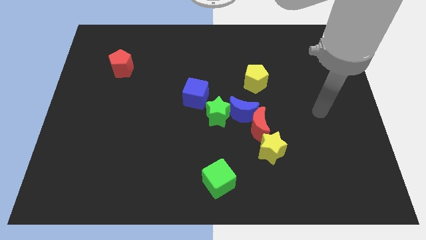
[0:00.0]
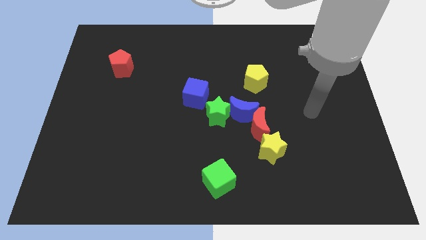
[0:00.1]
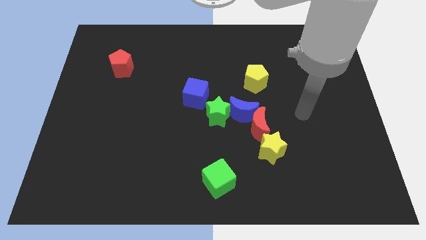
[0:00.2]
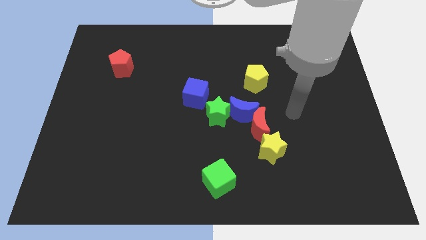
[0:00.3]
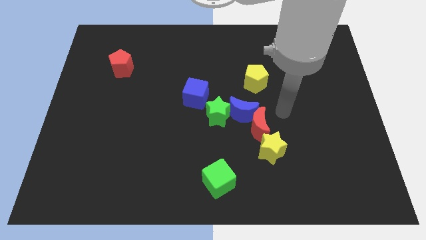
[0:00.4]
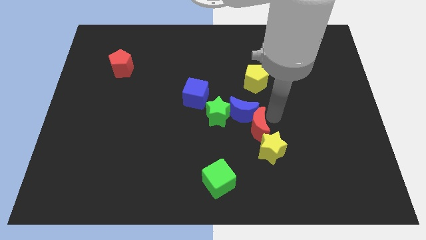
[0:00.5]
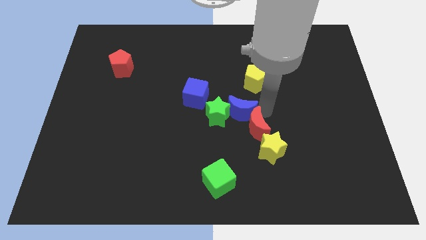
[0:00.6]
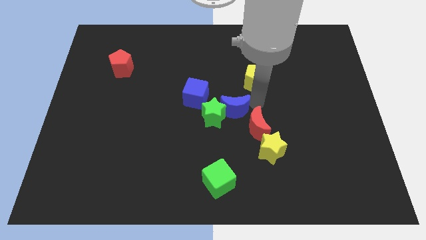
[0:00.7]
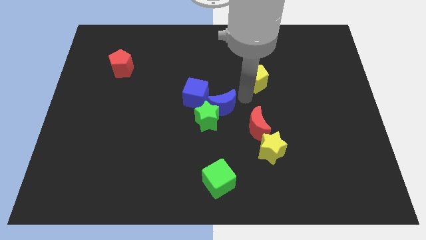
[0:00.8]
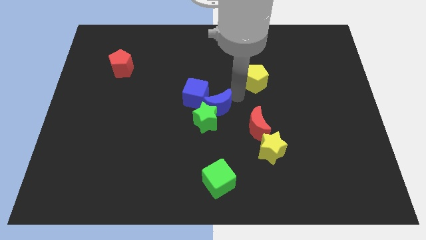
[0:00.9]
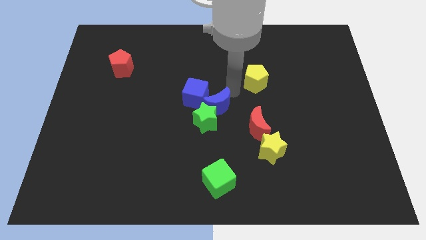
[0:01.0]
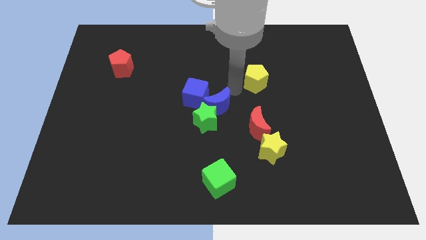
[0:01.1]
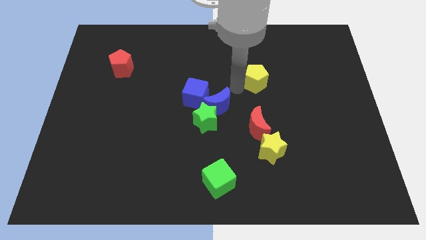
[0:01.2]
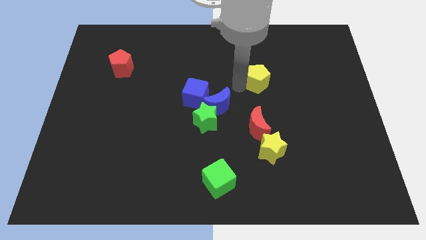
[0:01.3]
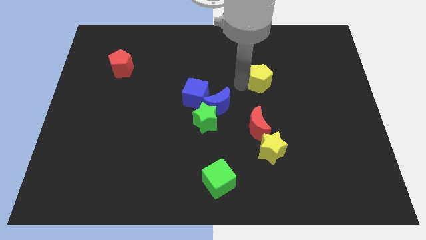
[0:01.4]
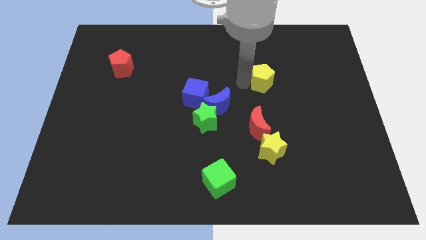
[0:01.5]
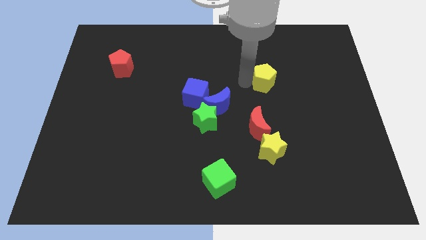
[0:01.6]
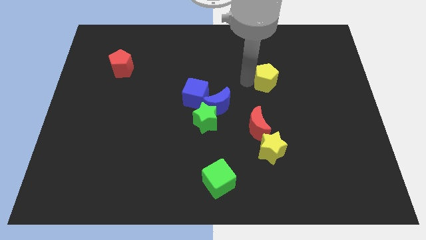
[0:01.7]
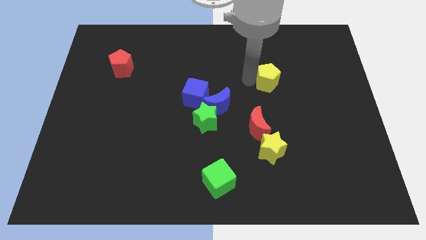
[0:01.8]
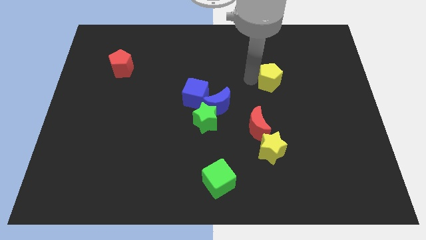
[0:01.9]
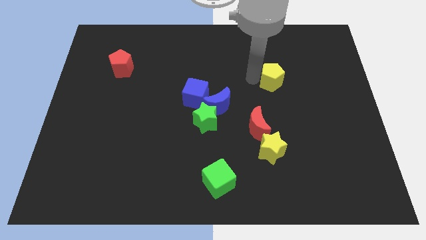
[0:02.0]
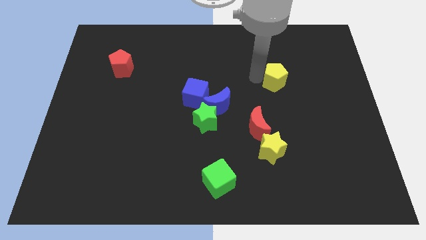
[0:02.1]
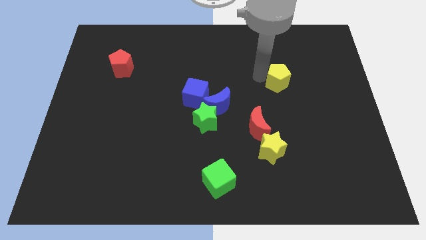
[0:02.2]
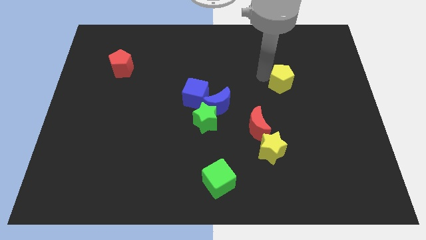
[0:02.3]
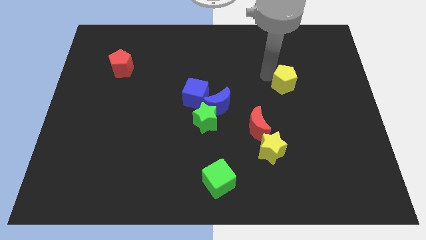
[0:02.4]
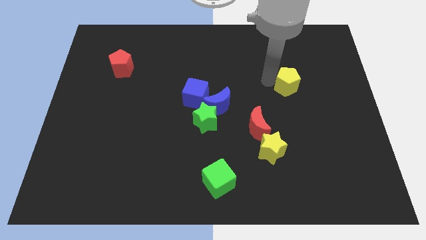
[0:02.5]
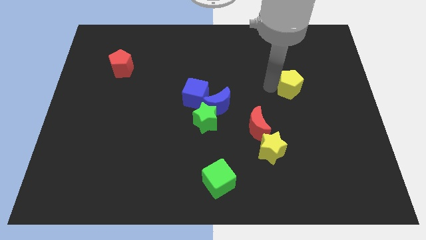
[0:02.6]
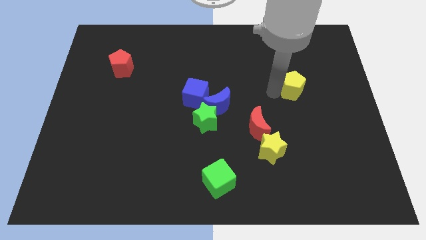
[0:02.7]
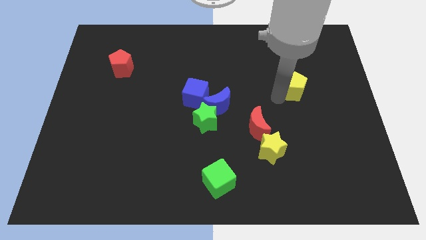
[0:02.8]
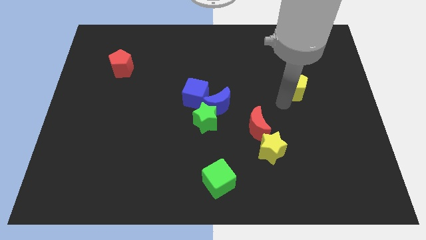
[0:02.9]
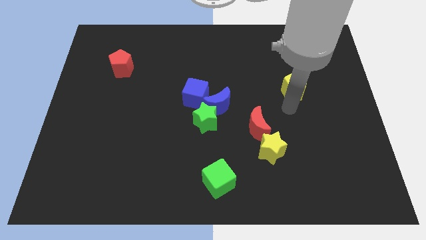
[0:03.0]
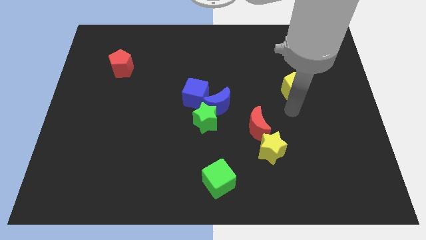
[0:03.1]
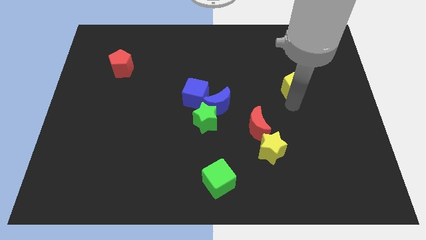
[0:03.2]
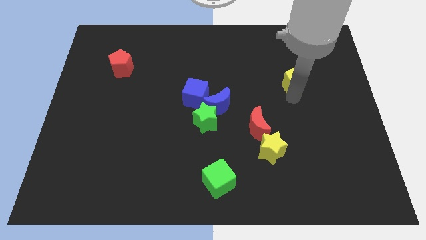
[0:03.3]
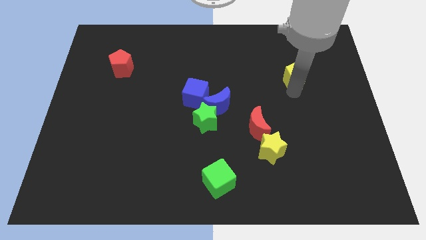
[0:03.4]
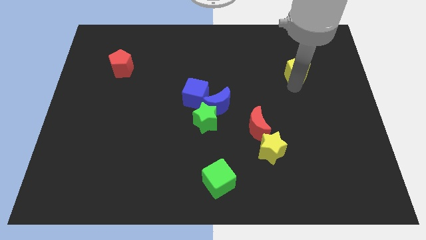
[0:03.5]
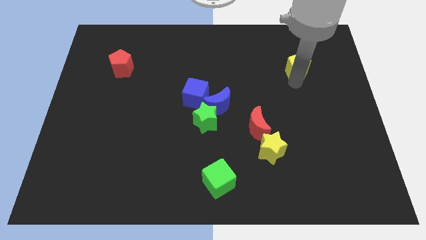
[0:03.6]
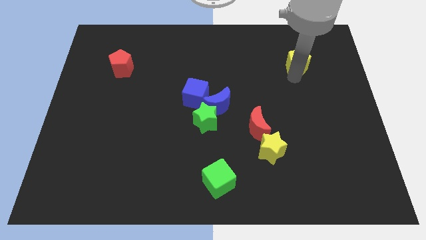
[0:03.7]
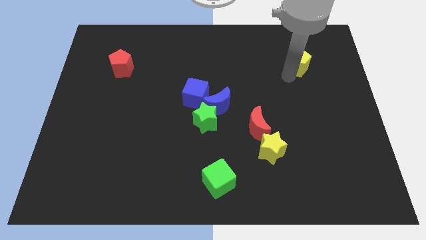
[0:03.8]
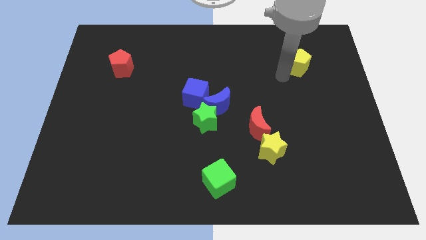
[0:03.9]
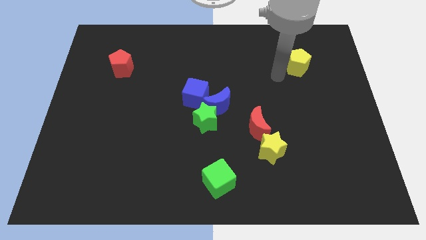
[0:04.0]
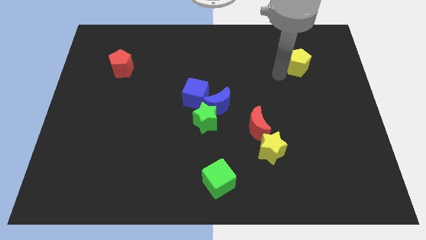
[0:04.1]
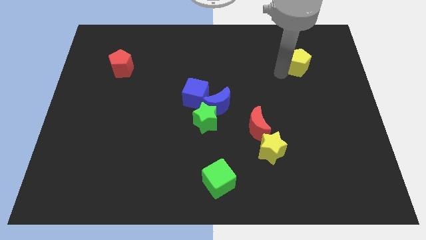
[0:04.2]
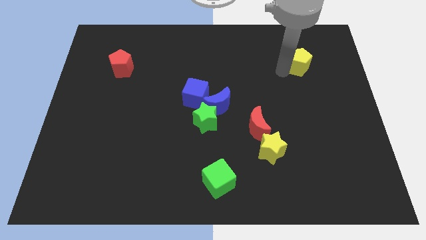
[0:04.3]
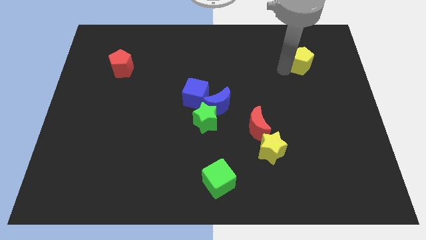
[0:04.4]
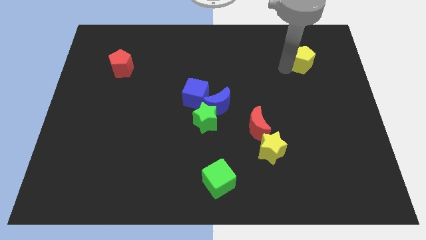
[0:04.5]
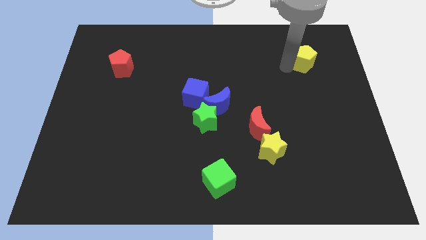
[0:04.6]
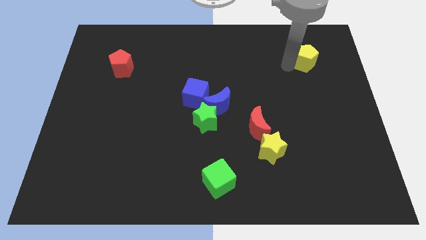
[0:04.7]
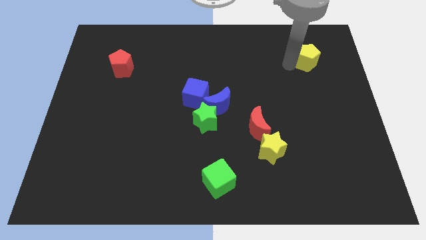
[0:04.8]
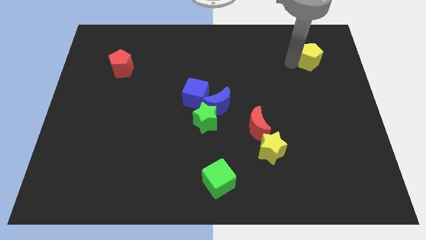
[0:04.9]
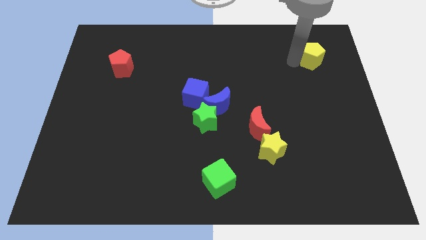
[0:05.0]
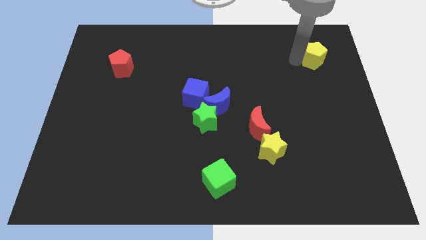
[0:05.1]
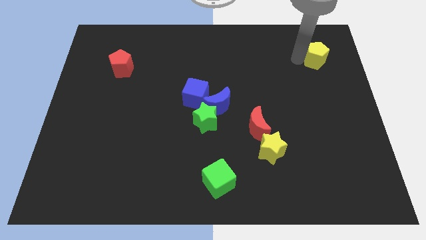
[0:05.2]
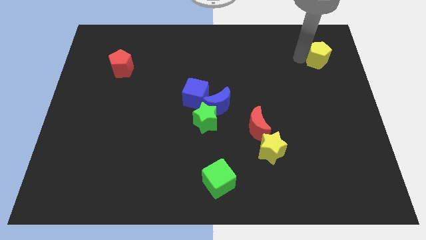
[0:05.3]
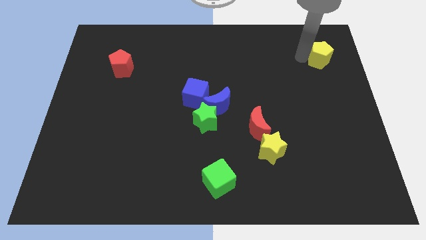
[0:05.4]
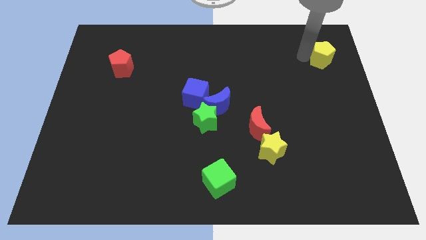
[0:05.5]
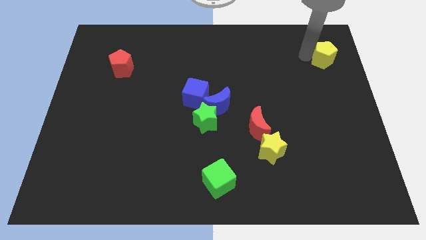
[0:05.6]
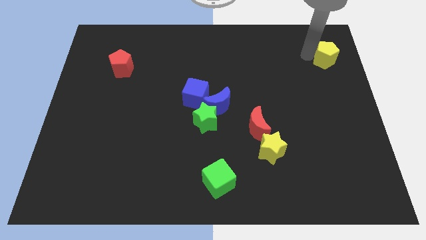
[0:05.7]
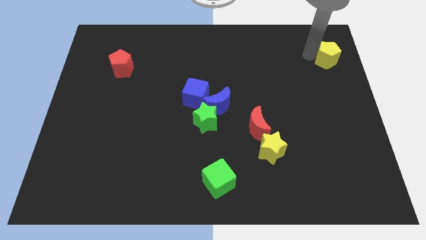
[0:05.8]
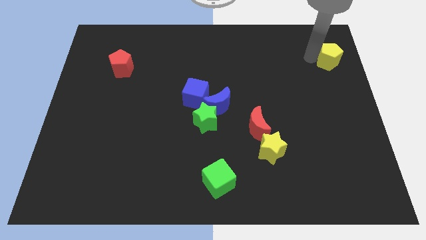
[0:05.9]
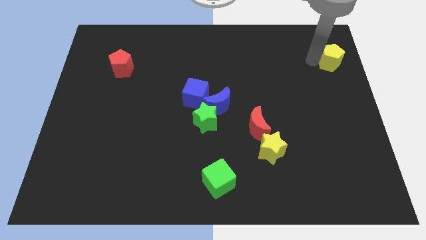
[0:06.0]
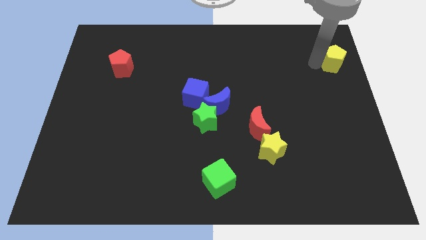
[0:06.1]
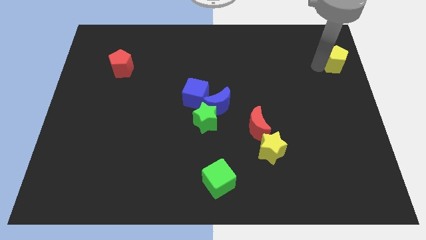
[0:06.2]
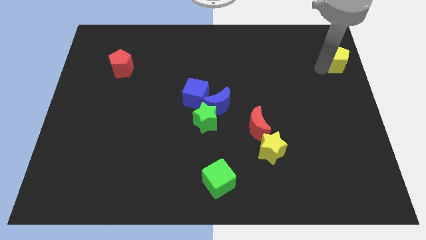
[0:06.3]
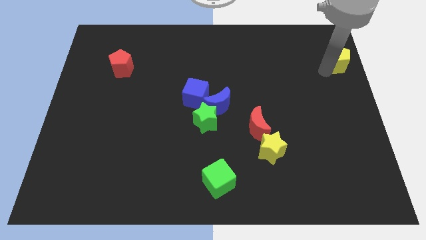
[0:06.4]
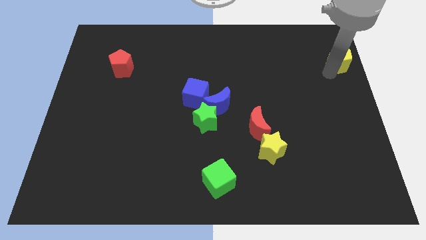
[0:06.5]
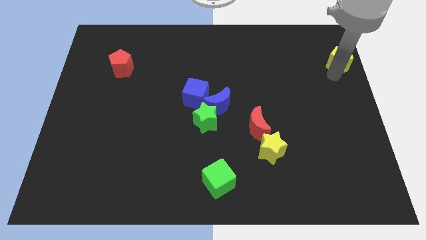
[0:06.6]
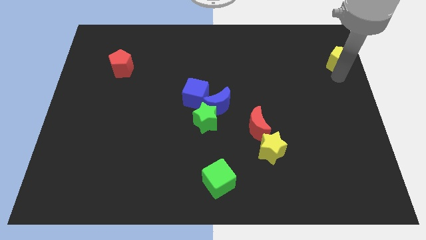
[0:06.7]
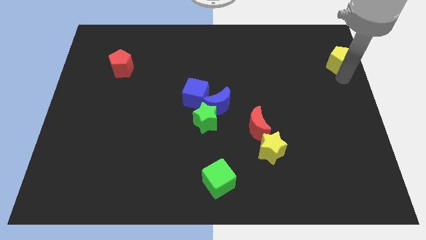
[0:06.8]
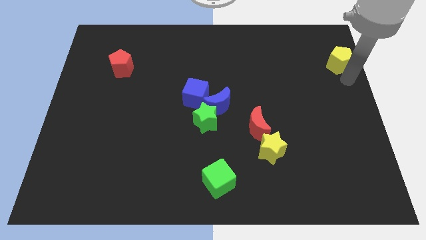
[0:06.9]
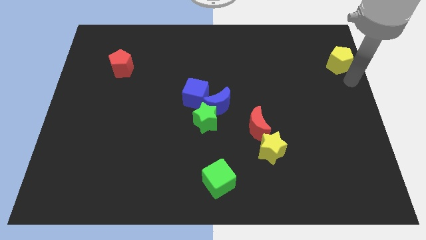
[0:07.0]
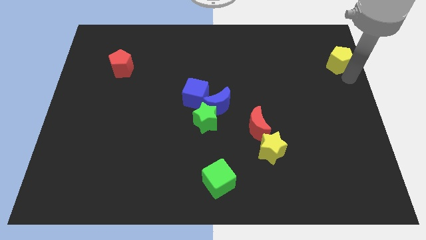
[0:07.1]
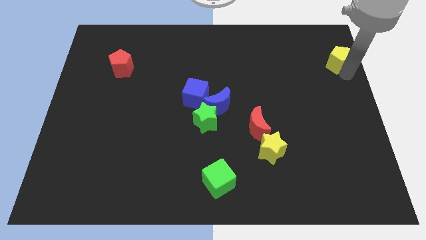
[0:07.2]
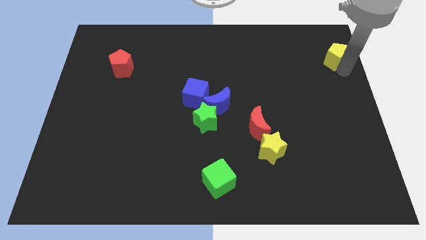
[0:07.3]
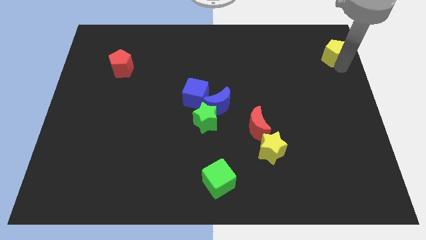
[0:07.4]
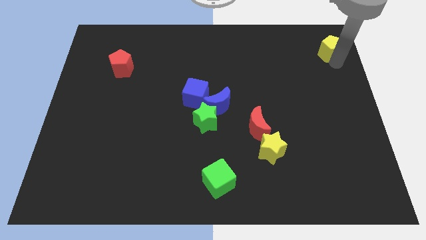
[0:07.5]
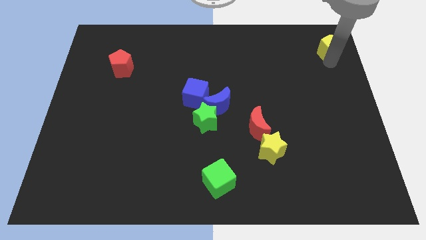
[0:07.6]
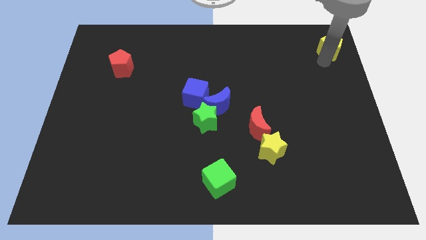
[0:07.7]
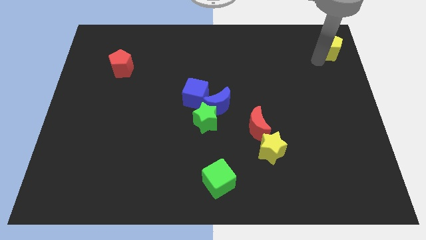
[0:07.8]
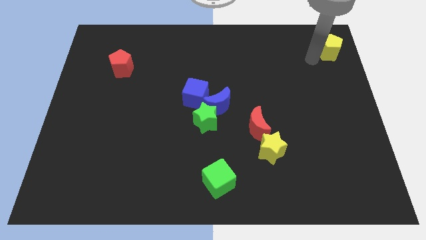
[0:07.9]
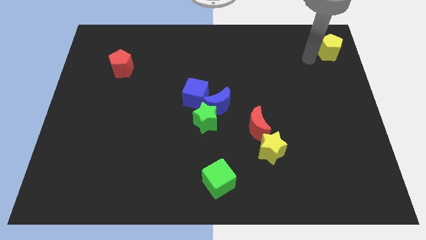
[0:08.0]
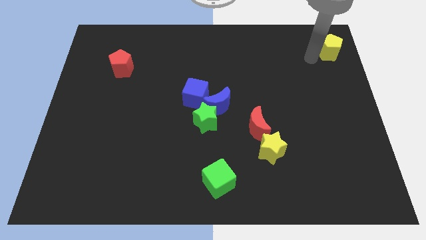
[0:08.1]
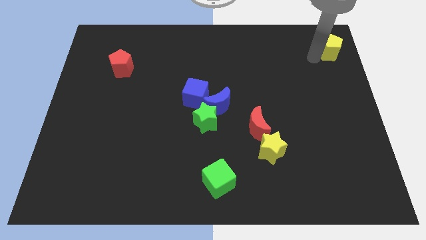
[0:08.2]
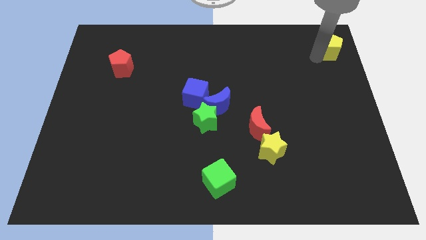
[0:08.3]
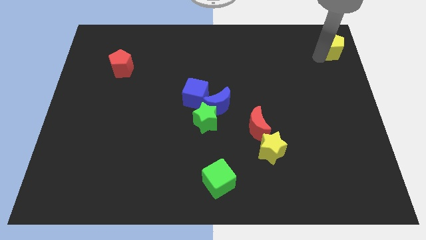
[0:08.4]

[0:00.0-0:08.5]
move the yellow pentagon to the upper right corner
